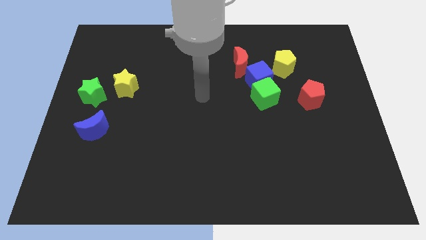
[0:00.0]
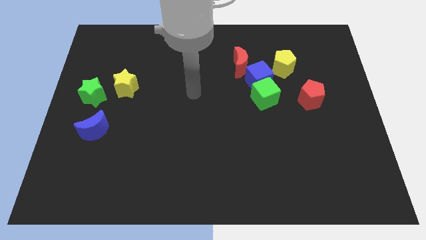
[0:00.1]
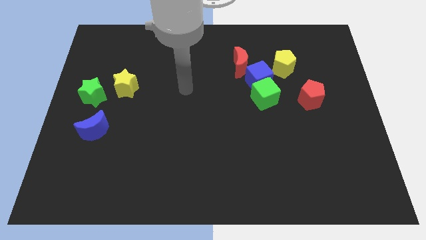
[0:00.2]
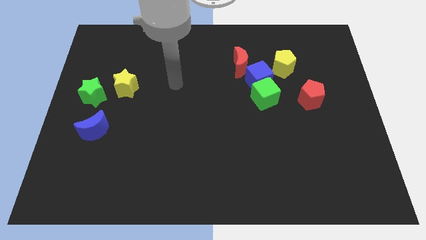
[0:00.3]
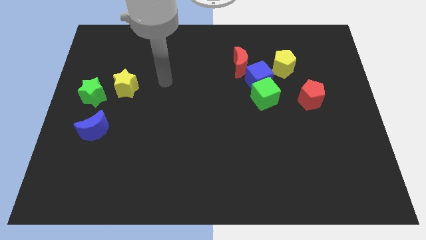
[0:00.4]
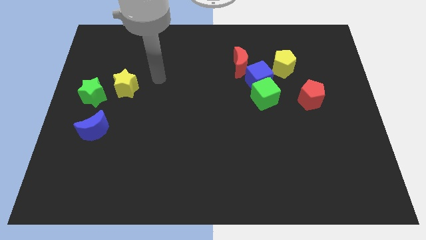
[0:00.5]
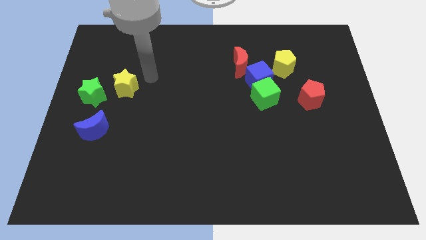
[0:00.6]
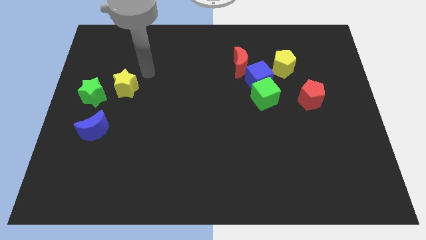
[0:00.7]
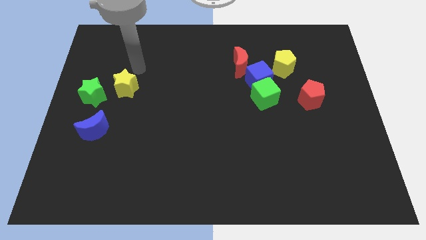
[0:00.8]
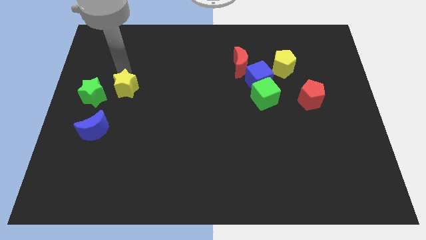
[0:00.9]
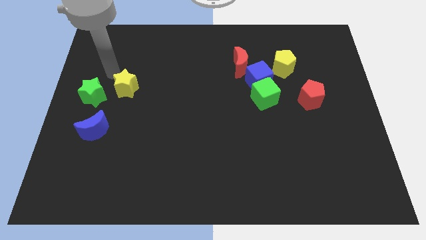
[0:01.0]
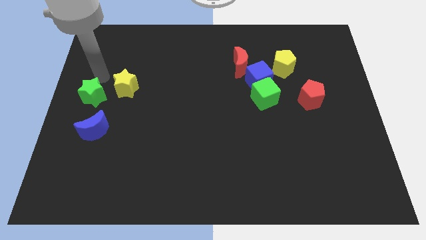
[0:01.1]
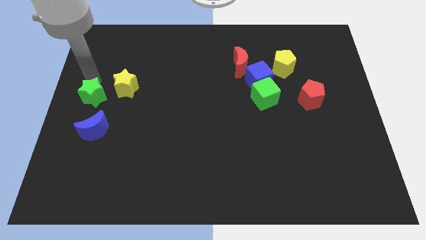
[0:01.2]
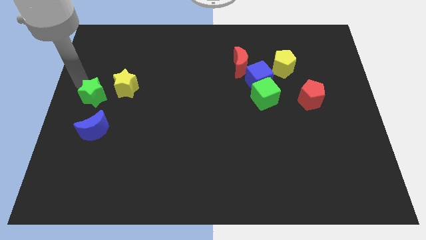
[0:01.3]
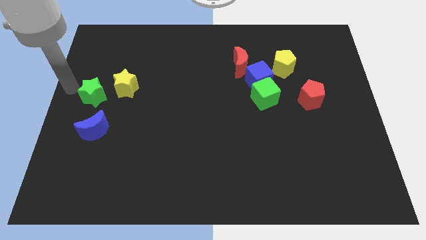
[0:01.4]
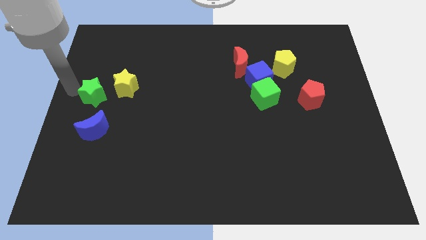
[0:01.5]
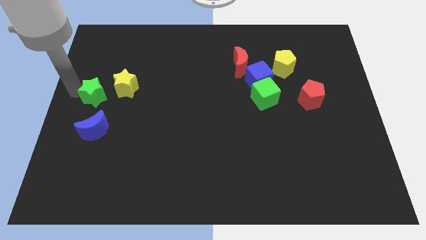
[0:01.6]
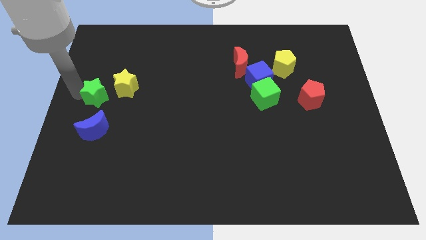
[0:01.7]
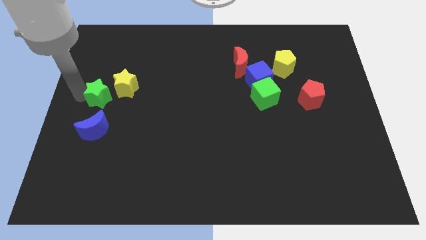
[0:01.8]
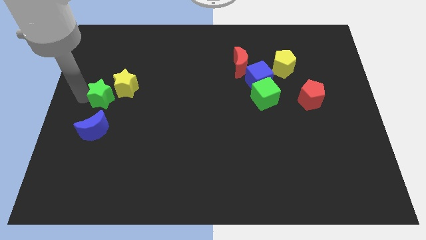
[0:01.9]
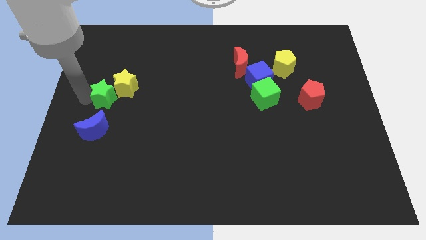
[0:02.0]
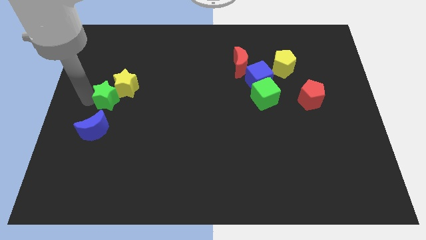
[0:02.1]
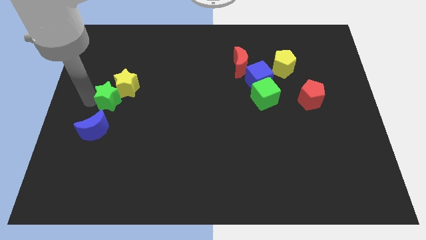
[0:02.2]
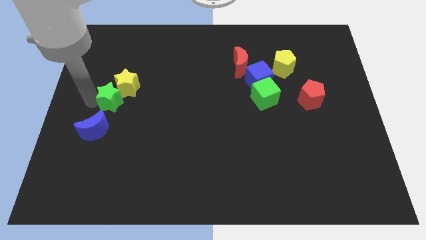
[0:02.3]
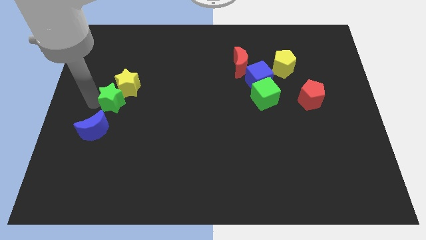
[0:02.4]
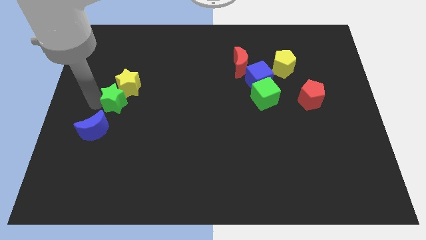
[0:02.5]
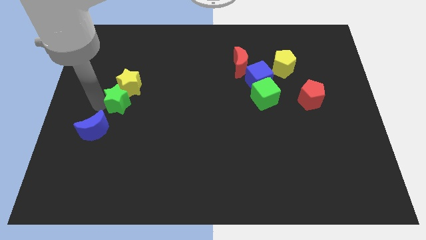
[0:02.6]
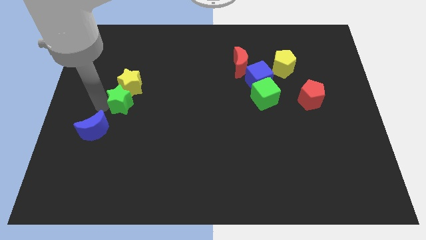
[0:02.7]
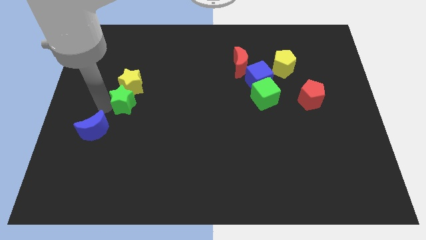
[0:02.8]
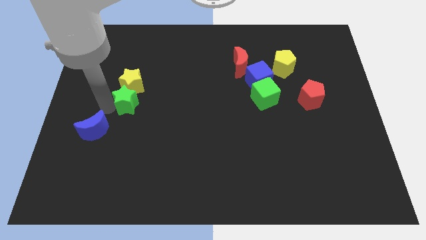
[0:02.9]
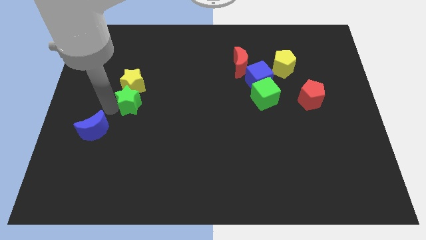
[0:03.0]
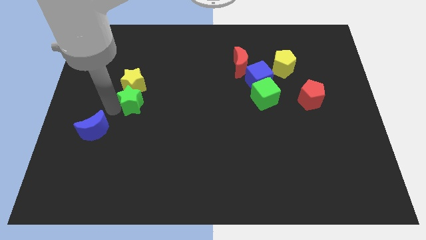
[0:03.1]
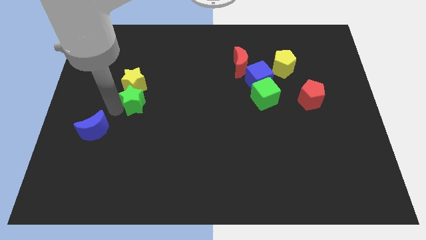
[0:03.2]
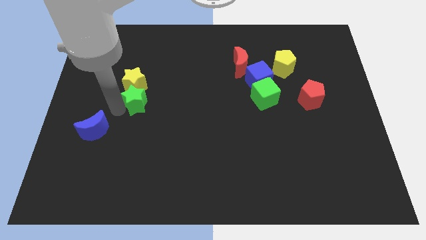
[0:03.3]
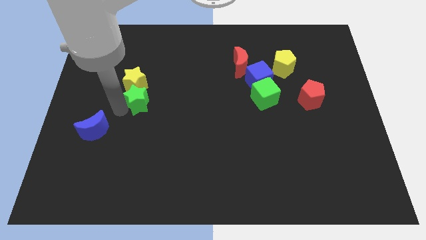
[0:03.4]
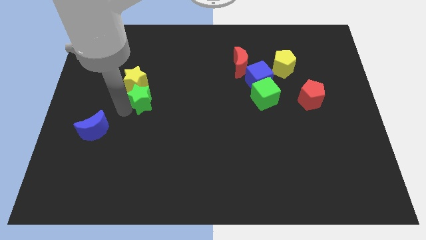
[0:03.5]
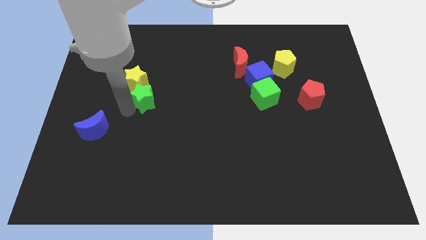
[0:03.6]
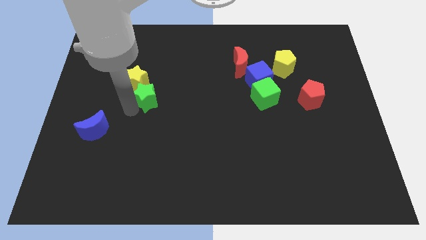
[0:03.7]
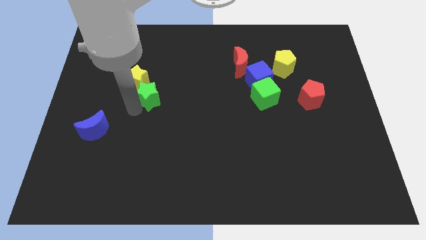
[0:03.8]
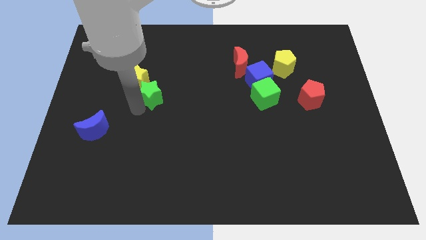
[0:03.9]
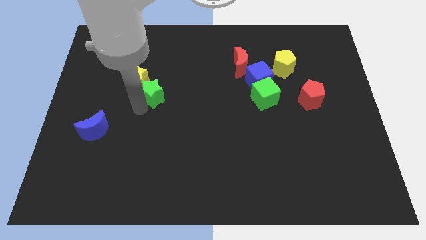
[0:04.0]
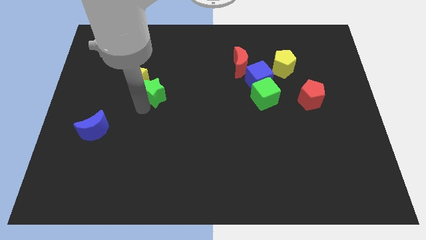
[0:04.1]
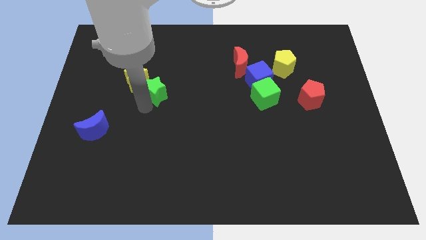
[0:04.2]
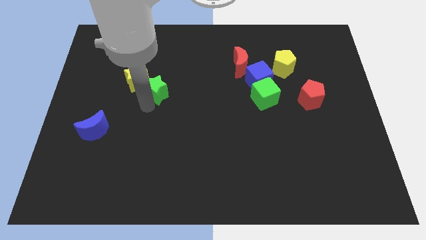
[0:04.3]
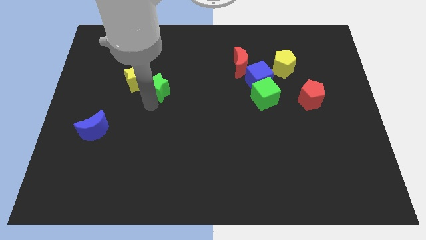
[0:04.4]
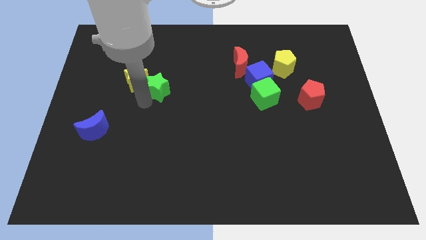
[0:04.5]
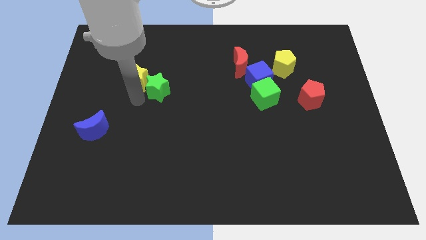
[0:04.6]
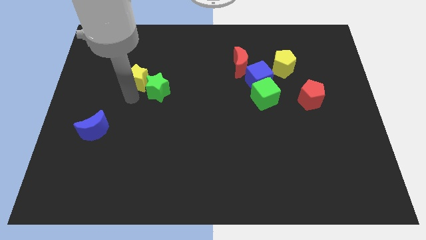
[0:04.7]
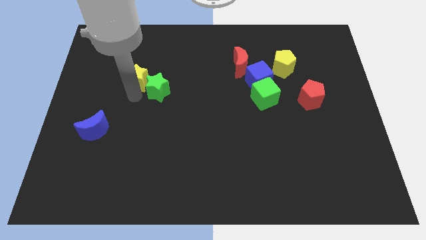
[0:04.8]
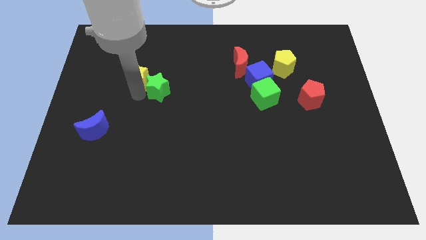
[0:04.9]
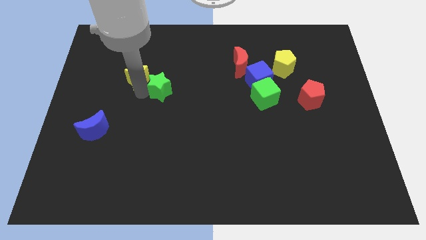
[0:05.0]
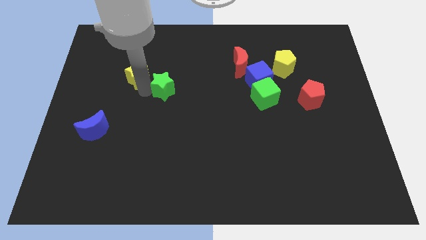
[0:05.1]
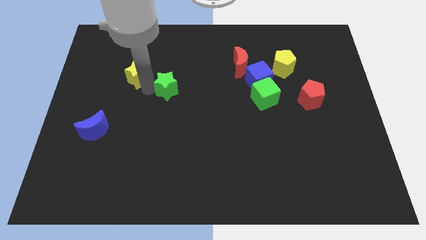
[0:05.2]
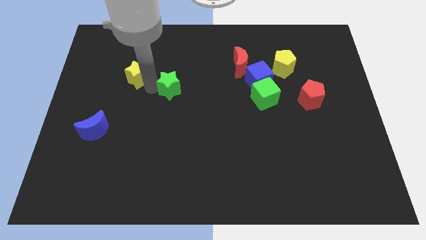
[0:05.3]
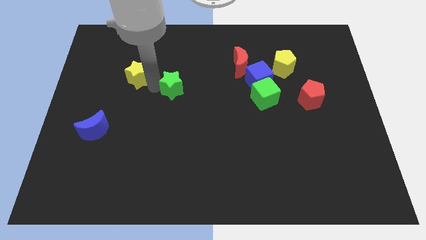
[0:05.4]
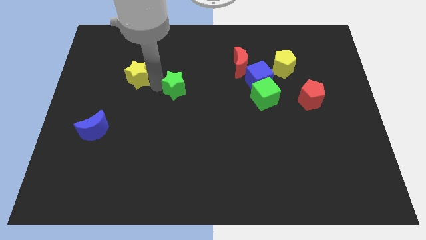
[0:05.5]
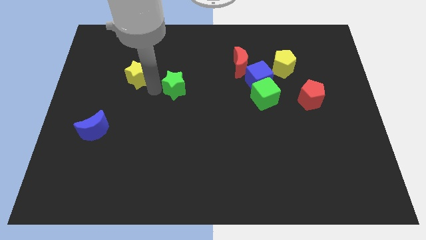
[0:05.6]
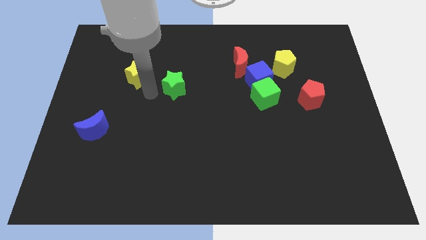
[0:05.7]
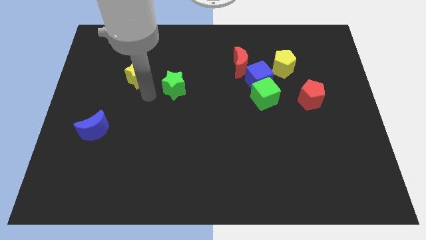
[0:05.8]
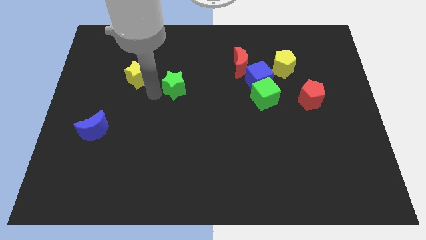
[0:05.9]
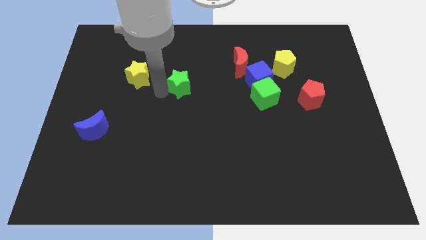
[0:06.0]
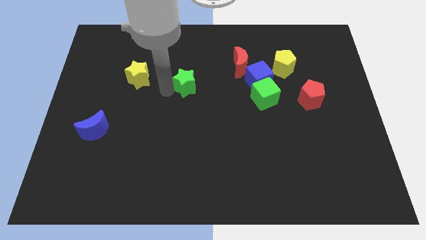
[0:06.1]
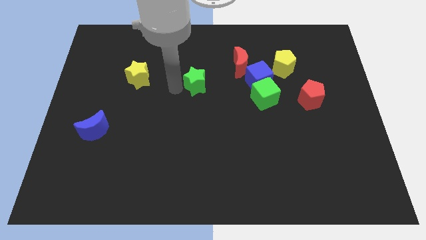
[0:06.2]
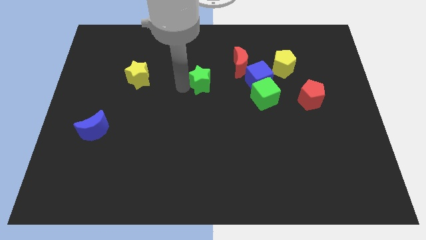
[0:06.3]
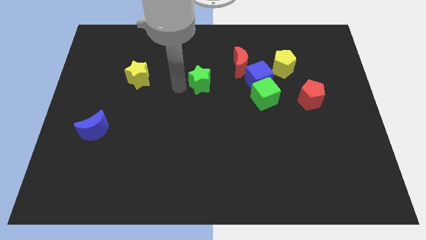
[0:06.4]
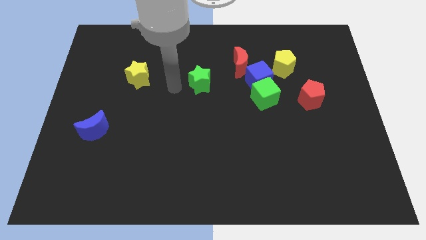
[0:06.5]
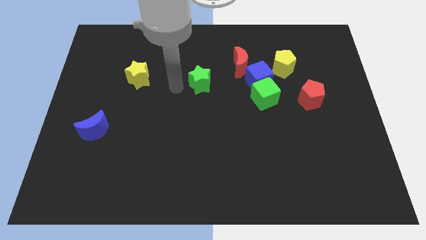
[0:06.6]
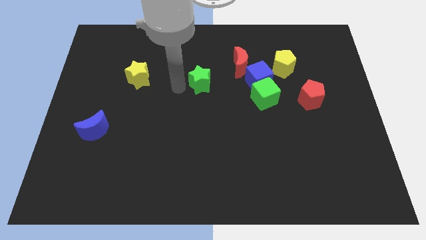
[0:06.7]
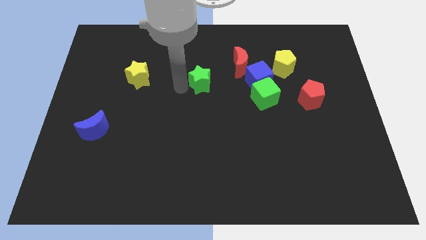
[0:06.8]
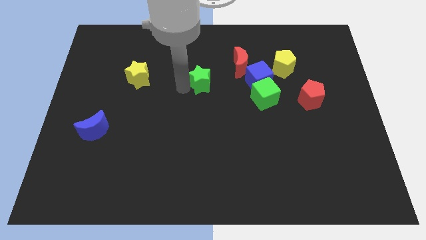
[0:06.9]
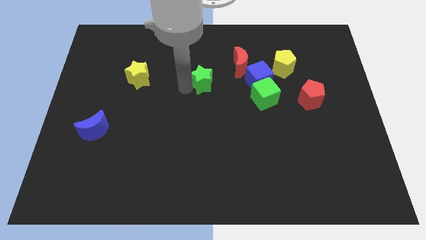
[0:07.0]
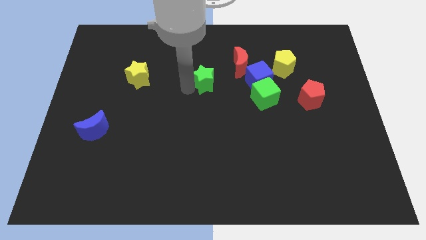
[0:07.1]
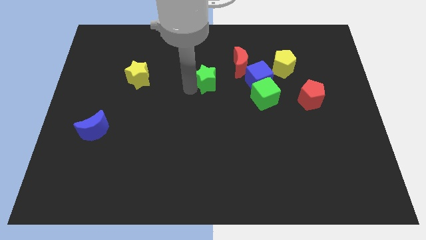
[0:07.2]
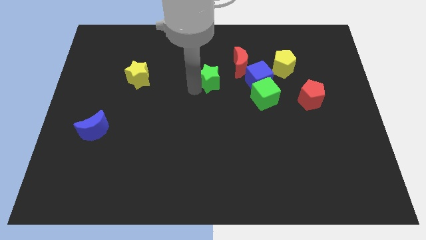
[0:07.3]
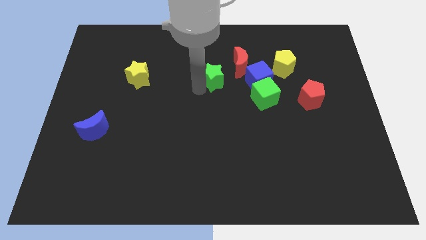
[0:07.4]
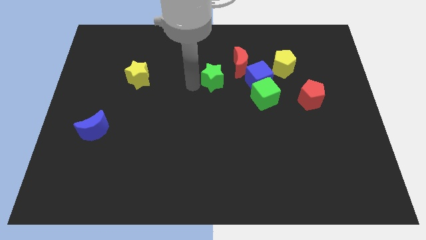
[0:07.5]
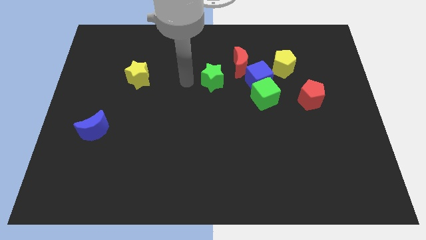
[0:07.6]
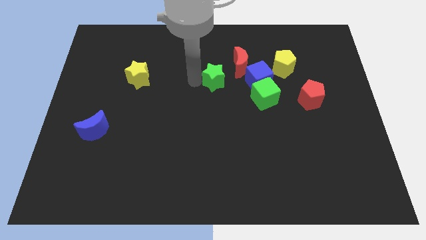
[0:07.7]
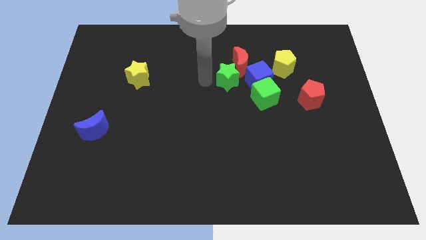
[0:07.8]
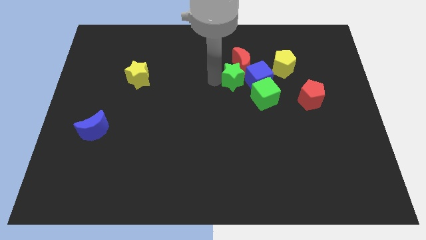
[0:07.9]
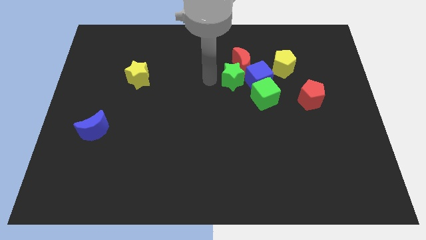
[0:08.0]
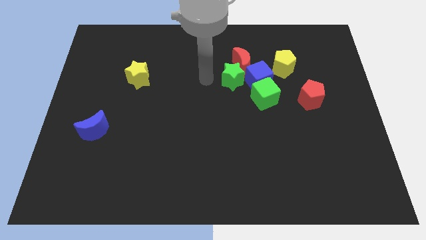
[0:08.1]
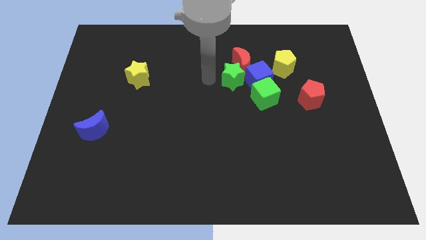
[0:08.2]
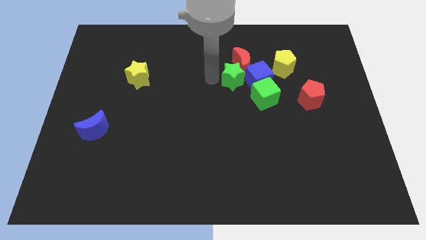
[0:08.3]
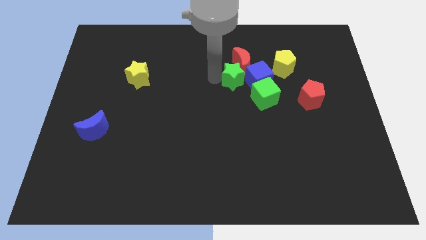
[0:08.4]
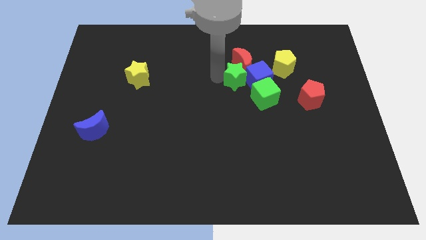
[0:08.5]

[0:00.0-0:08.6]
slide the green star close to the blue cube
